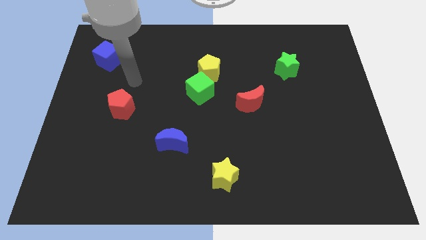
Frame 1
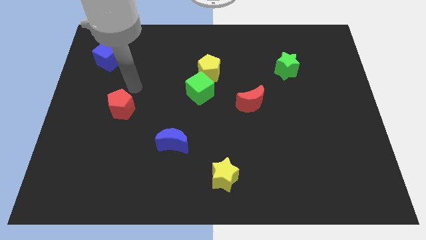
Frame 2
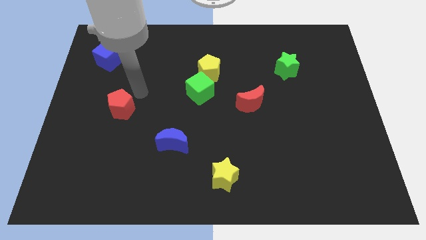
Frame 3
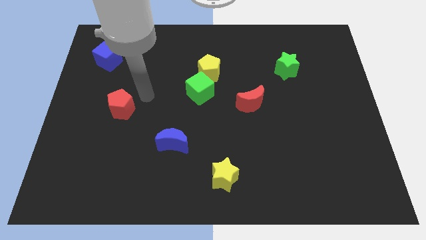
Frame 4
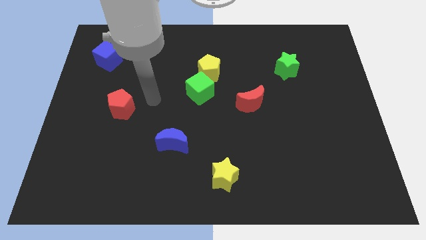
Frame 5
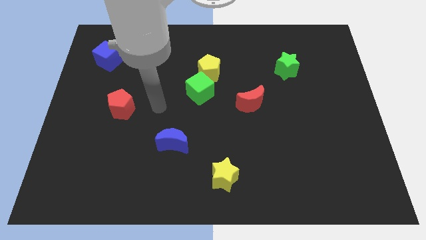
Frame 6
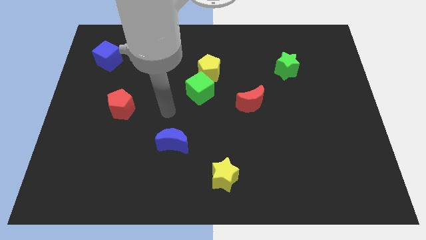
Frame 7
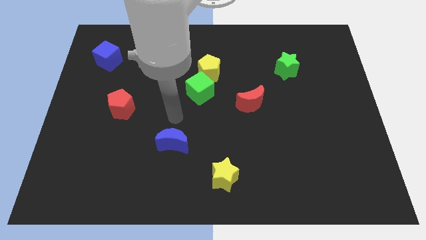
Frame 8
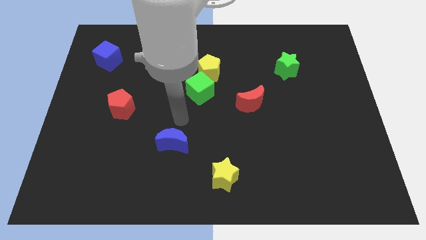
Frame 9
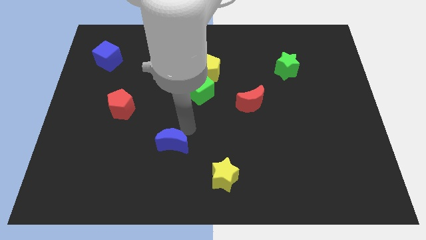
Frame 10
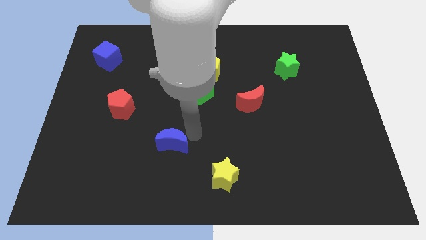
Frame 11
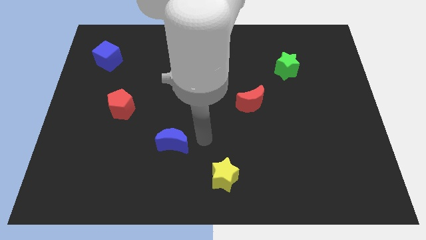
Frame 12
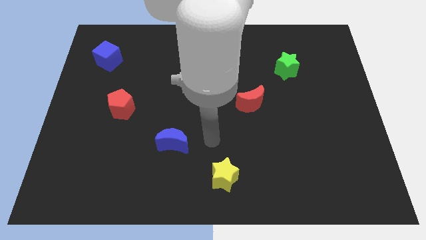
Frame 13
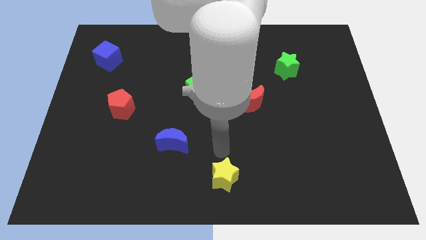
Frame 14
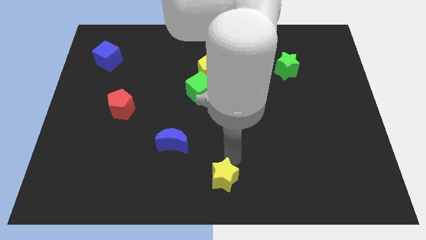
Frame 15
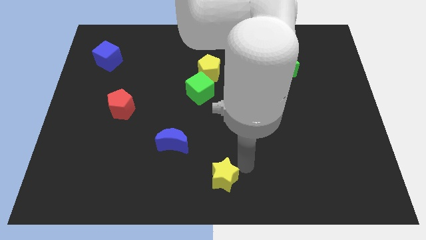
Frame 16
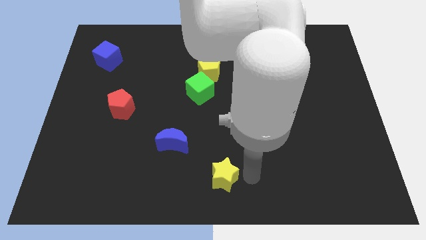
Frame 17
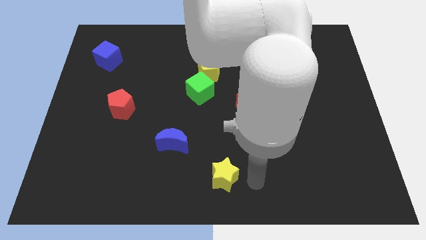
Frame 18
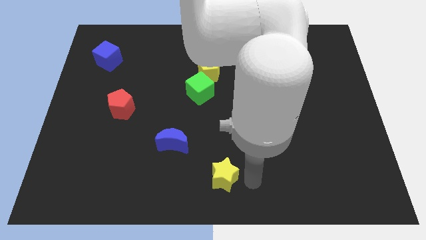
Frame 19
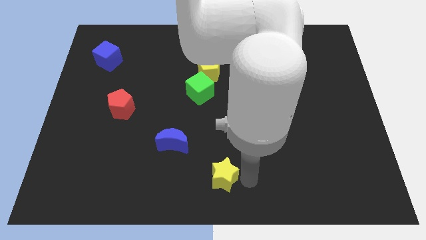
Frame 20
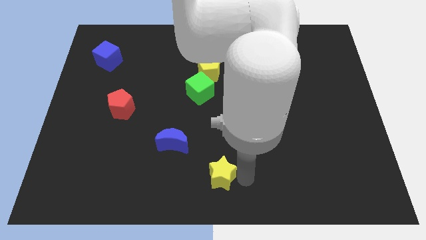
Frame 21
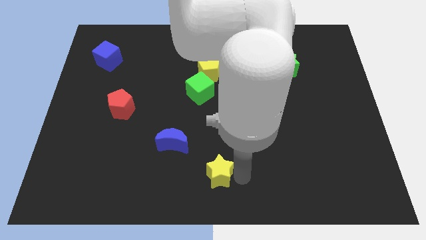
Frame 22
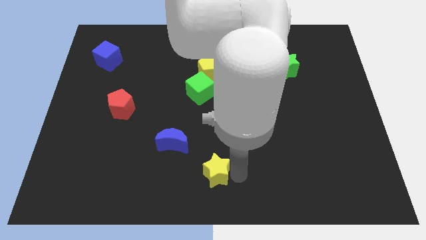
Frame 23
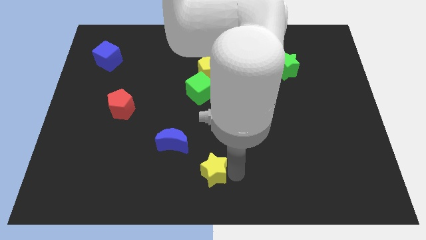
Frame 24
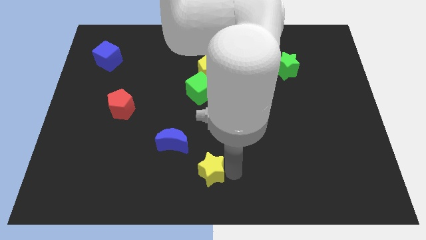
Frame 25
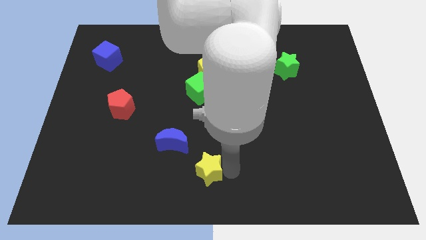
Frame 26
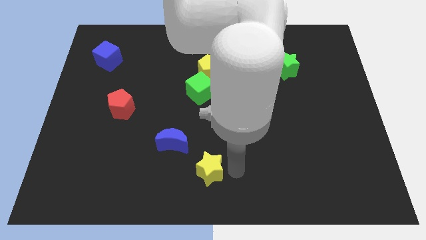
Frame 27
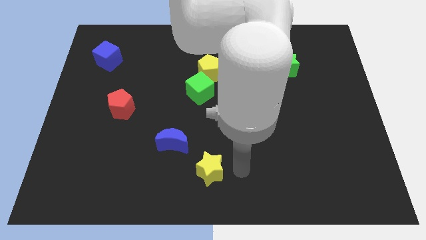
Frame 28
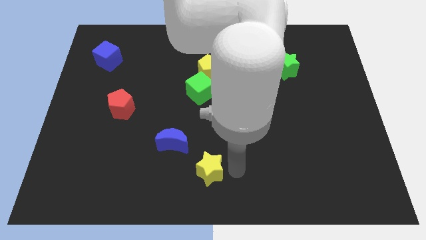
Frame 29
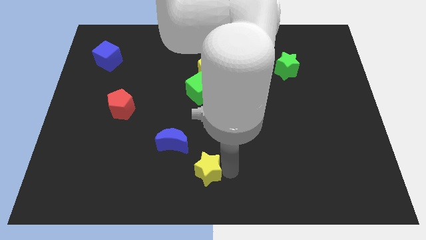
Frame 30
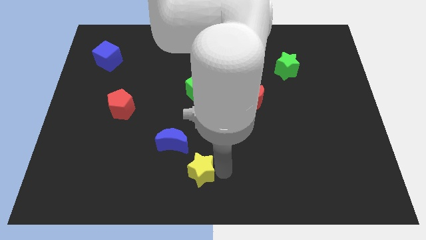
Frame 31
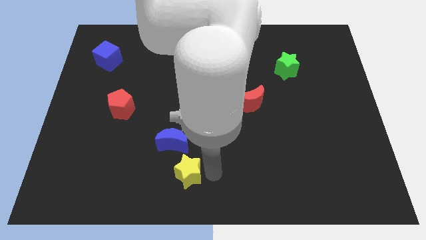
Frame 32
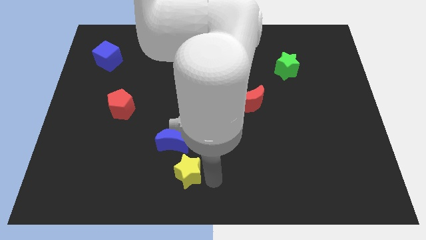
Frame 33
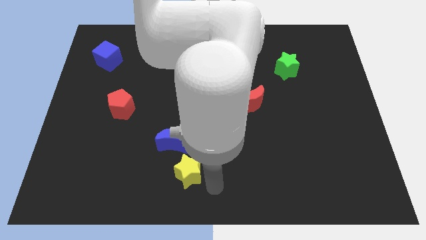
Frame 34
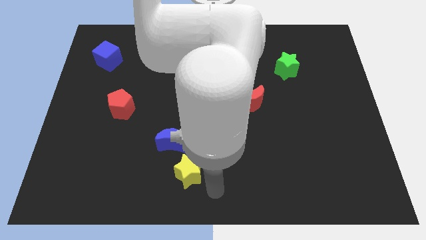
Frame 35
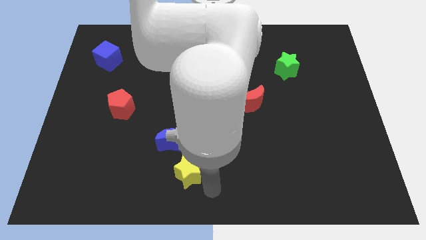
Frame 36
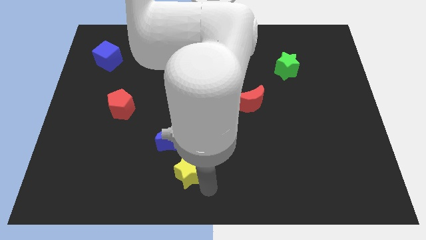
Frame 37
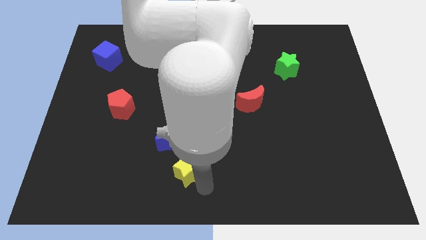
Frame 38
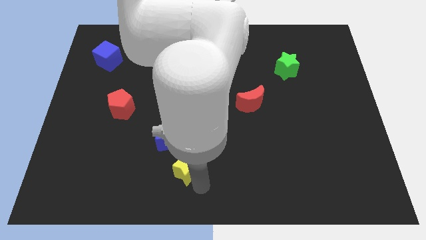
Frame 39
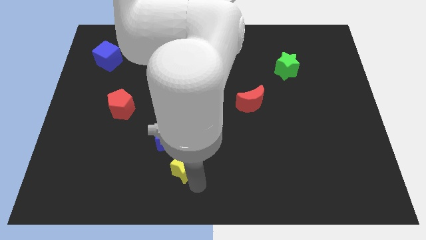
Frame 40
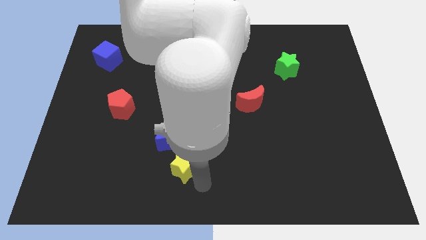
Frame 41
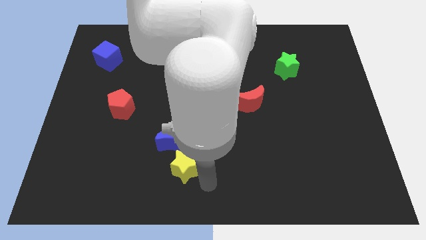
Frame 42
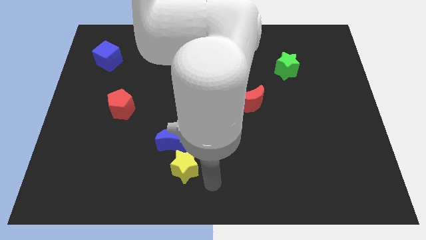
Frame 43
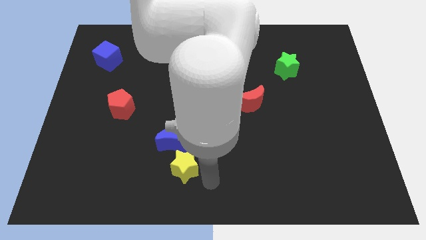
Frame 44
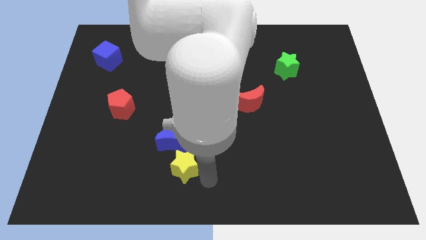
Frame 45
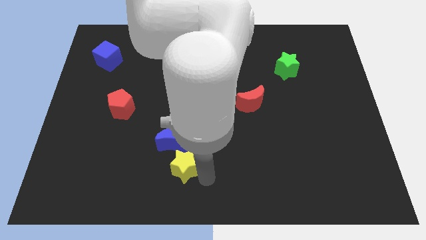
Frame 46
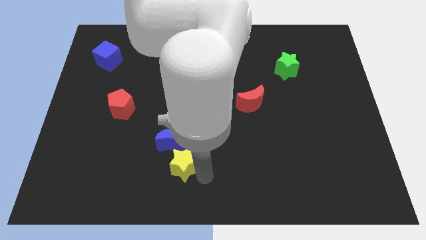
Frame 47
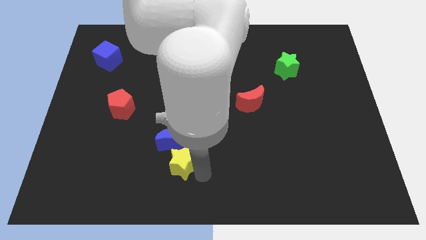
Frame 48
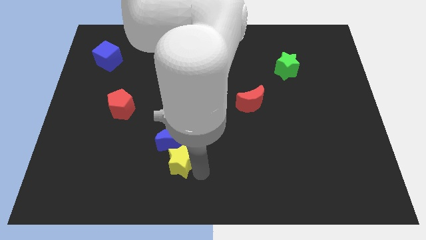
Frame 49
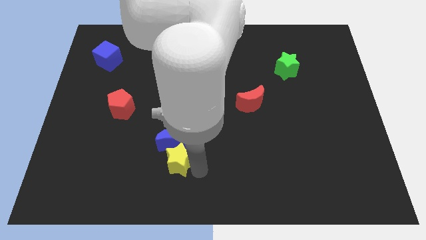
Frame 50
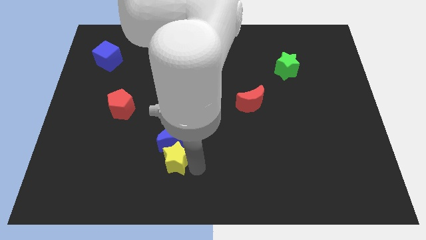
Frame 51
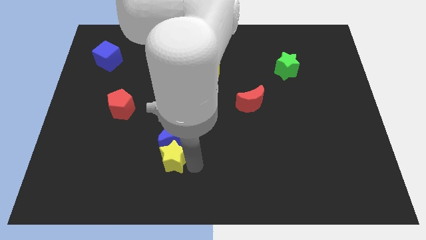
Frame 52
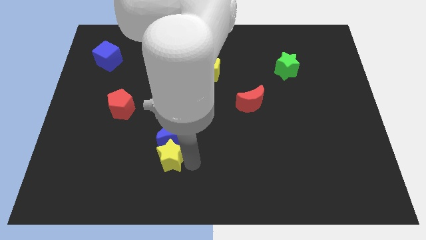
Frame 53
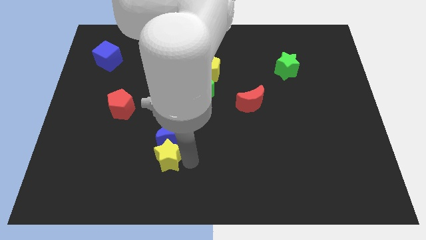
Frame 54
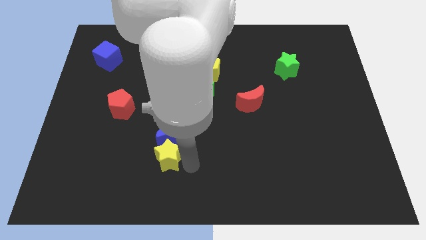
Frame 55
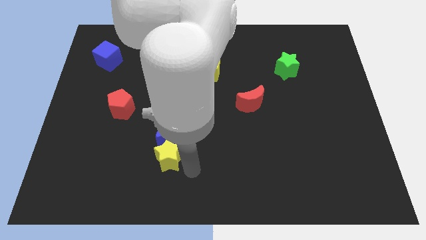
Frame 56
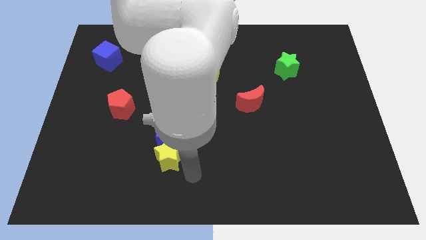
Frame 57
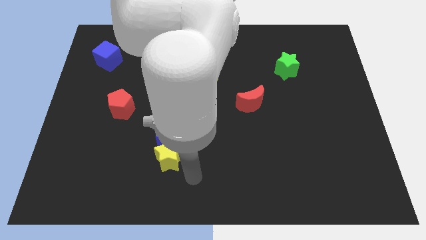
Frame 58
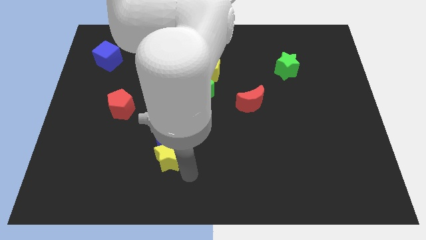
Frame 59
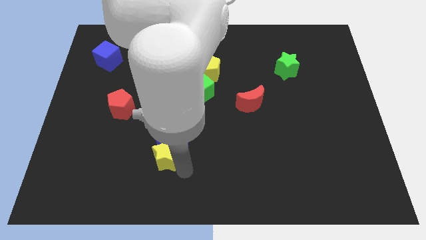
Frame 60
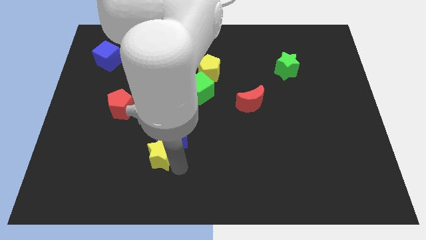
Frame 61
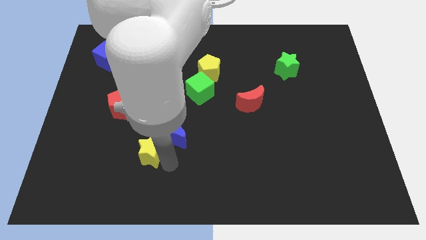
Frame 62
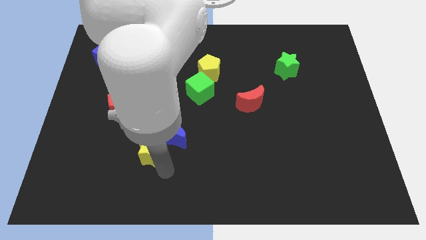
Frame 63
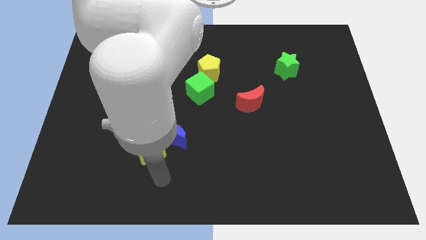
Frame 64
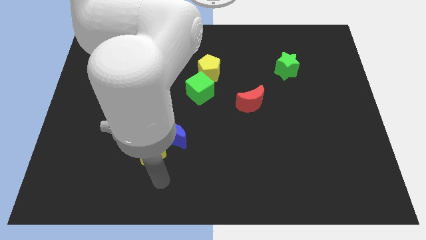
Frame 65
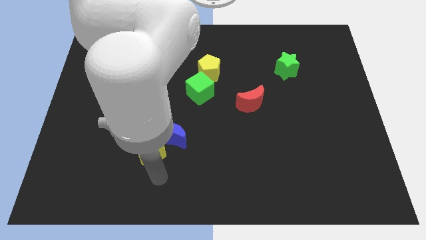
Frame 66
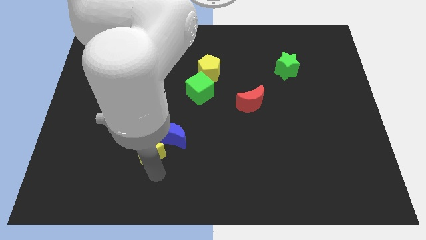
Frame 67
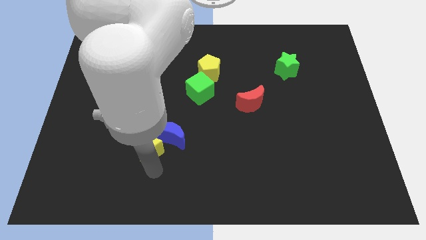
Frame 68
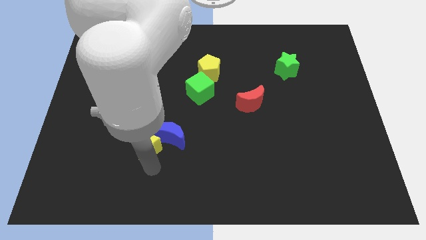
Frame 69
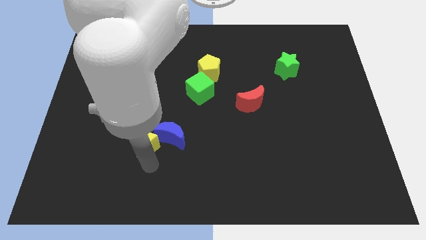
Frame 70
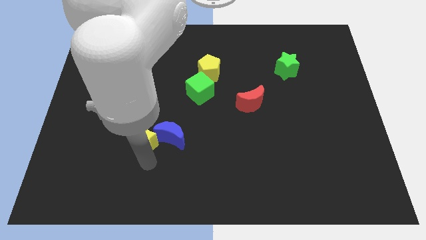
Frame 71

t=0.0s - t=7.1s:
push the yellow star to the bottom right side of the red pentagon

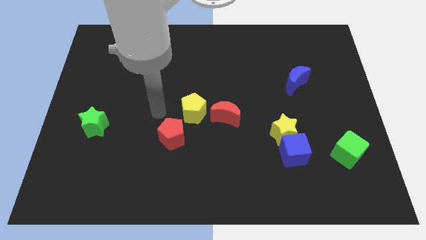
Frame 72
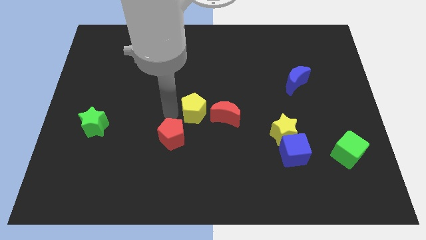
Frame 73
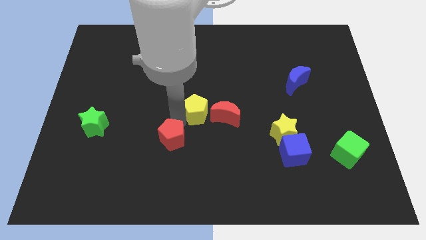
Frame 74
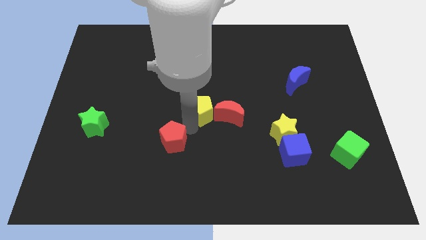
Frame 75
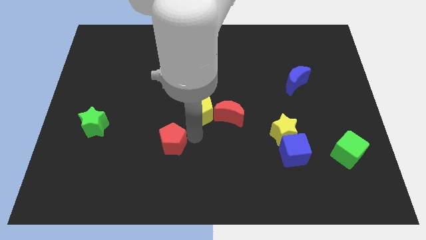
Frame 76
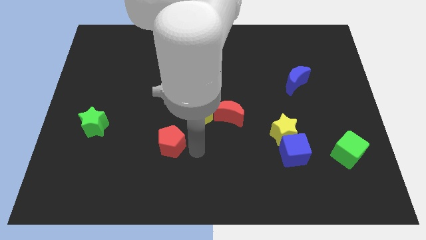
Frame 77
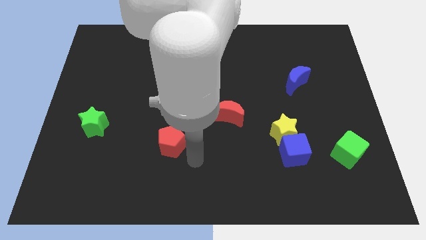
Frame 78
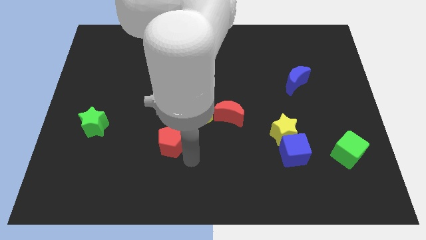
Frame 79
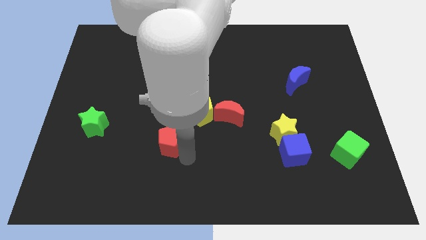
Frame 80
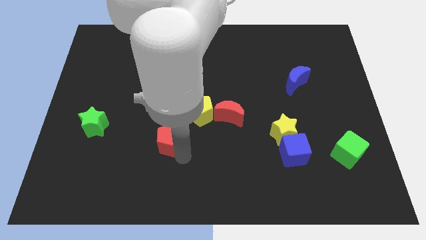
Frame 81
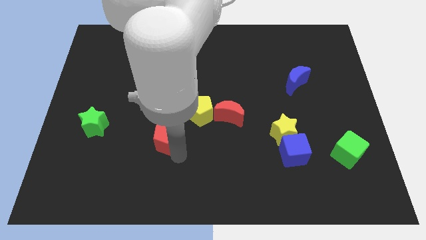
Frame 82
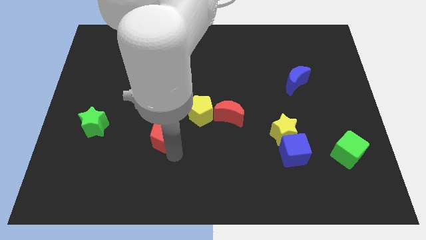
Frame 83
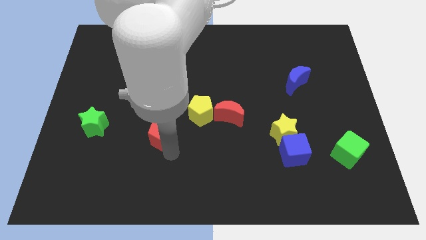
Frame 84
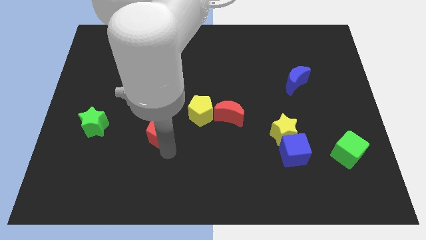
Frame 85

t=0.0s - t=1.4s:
push the red pentagon to the right of the green star
